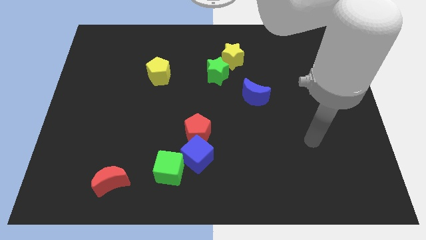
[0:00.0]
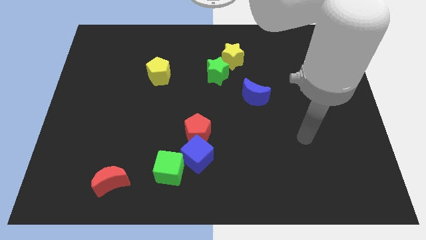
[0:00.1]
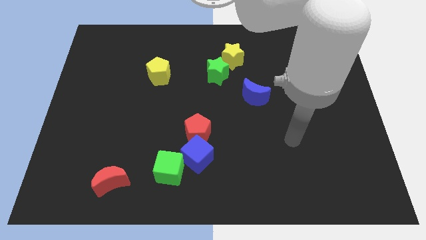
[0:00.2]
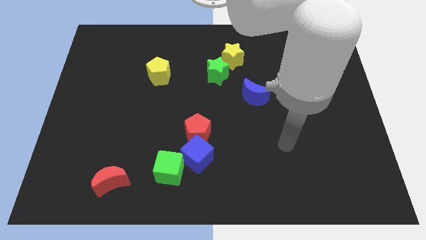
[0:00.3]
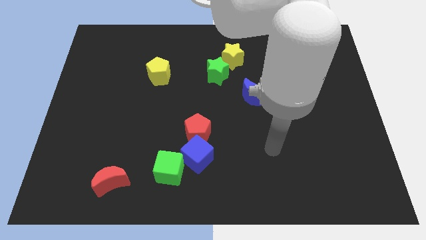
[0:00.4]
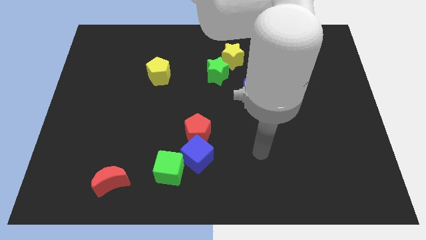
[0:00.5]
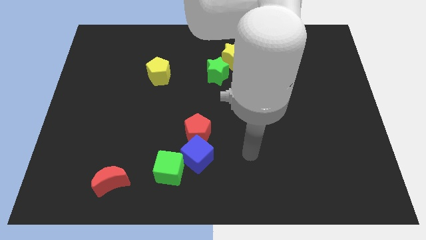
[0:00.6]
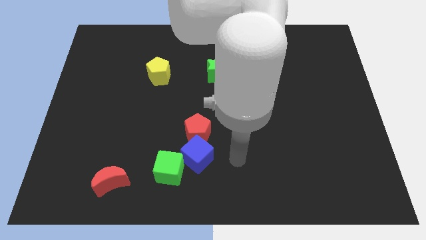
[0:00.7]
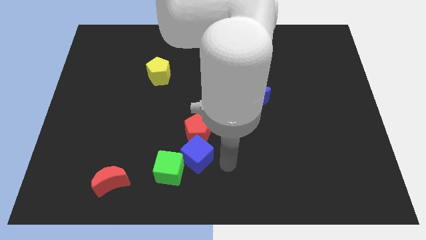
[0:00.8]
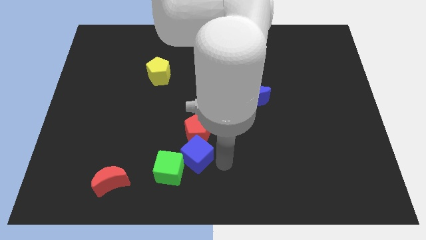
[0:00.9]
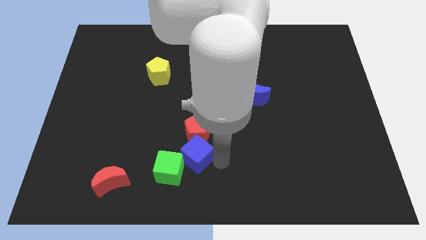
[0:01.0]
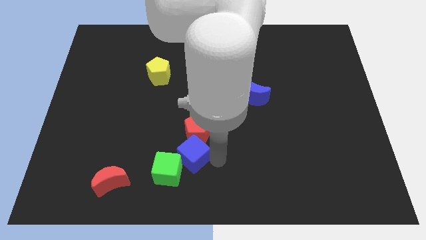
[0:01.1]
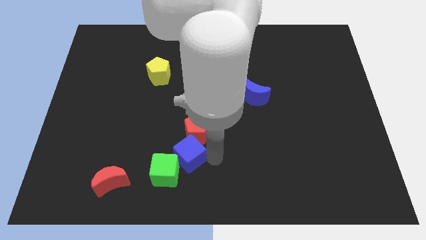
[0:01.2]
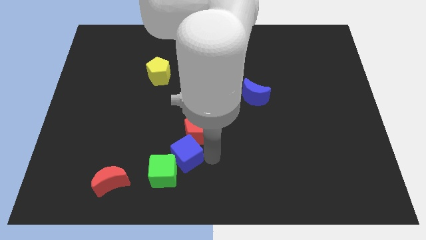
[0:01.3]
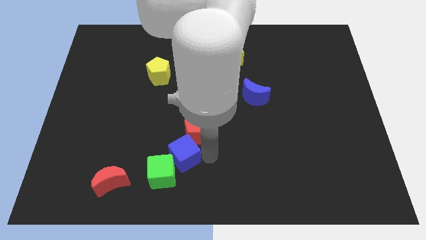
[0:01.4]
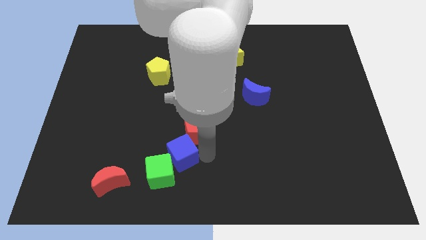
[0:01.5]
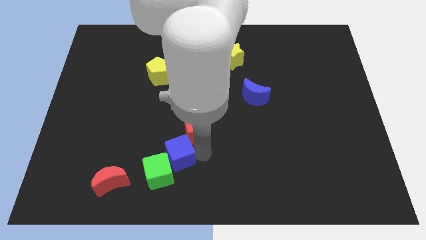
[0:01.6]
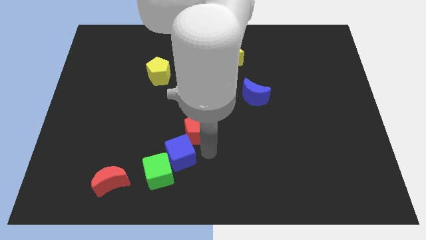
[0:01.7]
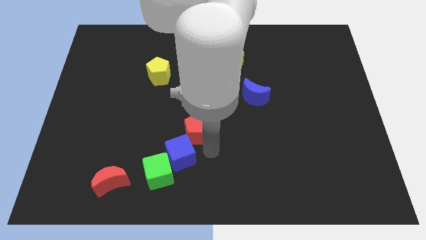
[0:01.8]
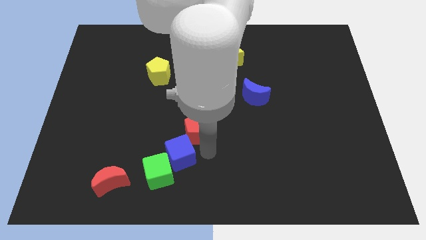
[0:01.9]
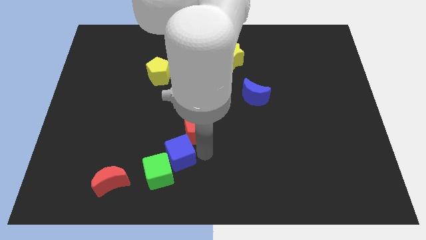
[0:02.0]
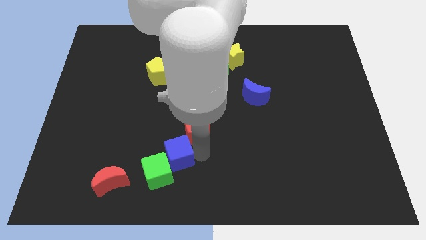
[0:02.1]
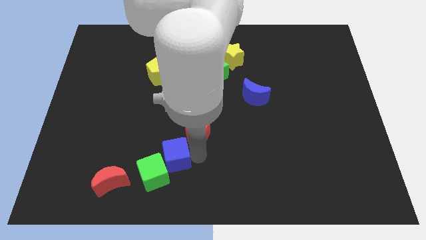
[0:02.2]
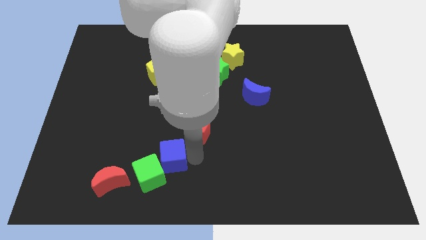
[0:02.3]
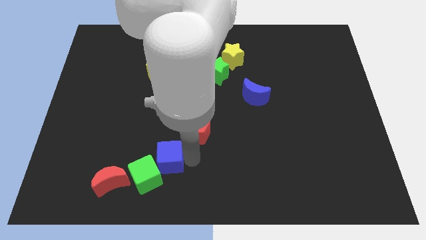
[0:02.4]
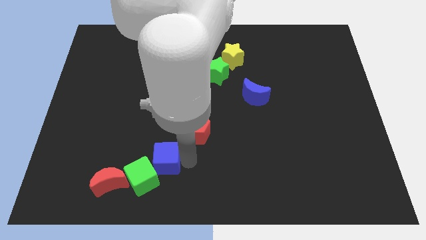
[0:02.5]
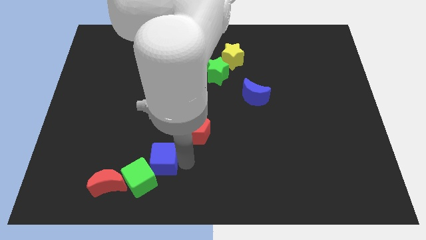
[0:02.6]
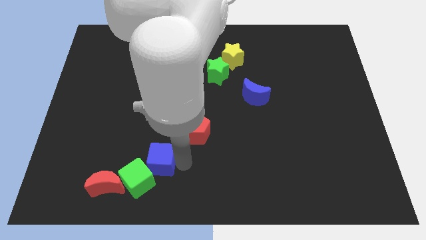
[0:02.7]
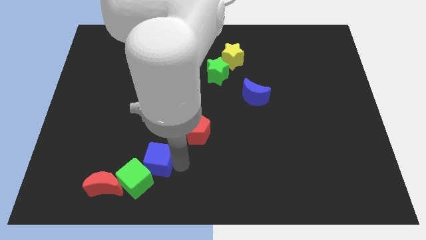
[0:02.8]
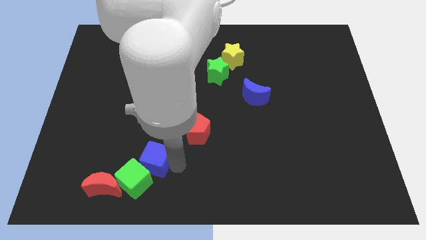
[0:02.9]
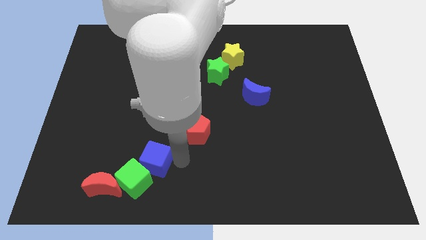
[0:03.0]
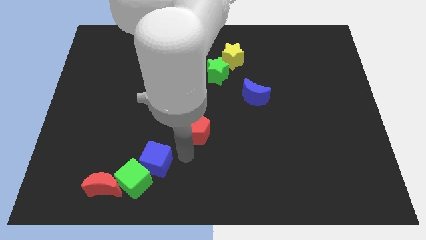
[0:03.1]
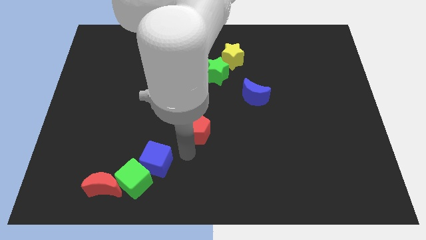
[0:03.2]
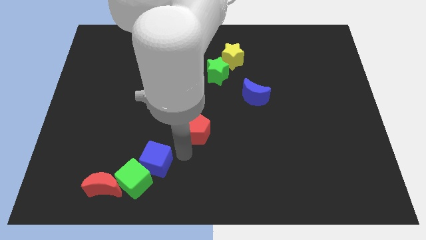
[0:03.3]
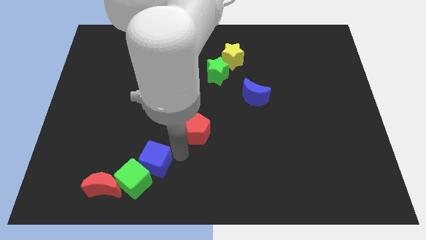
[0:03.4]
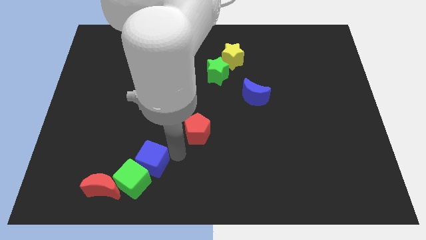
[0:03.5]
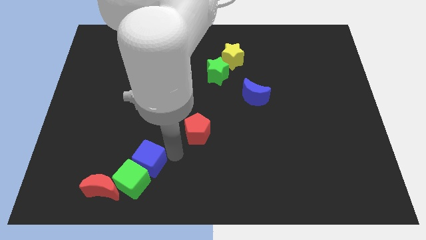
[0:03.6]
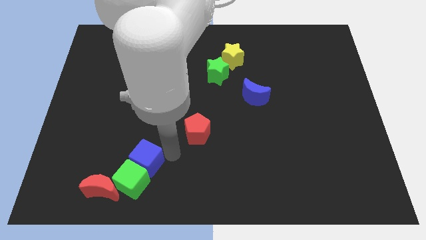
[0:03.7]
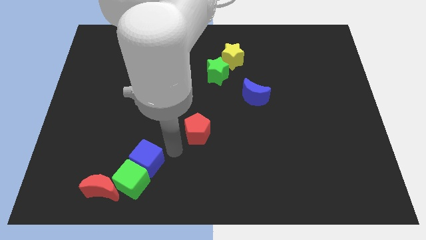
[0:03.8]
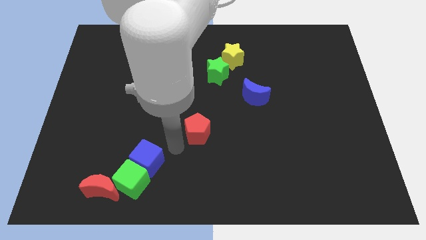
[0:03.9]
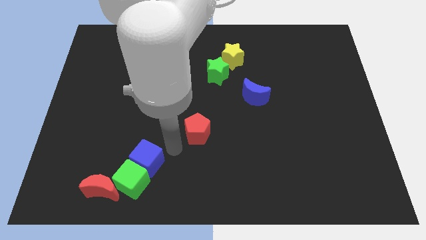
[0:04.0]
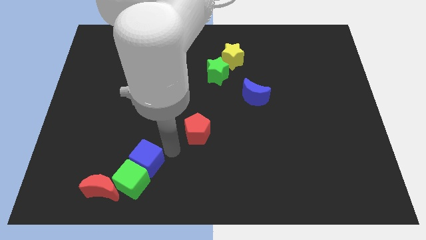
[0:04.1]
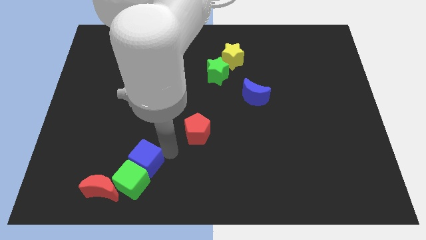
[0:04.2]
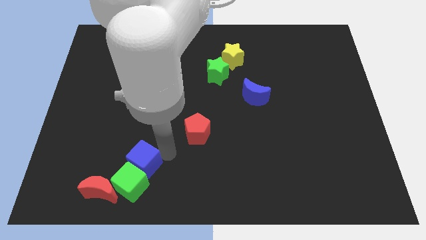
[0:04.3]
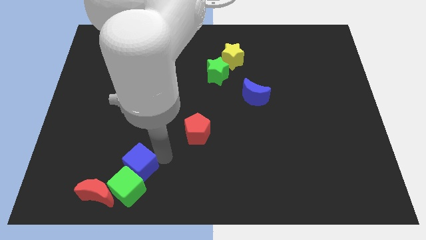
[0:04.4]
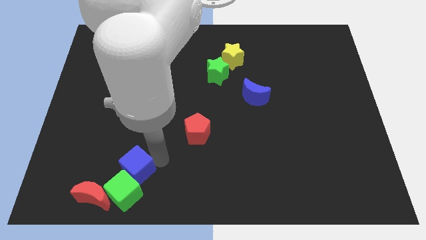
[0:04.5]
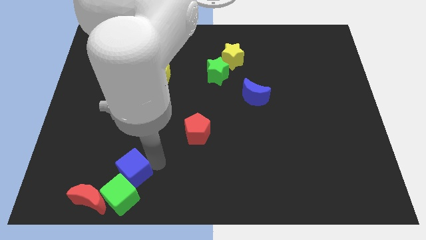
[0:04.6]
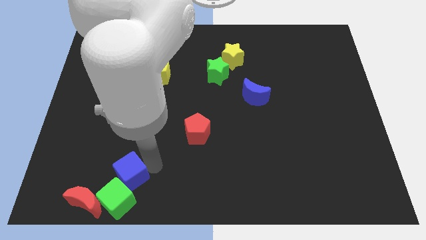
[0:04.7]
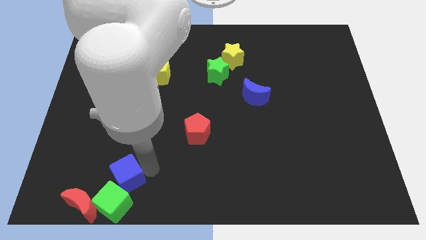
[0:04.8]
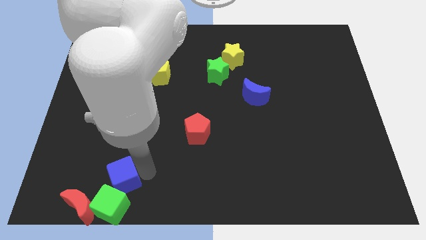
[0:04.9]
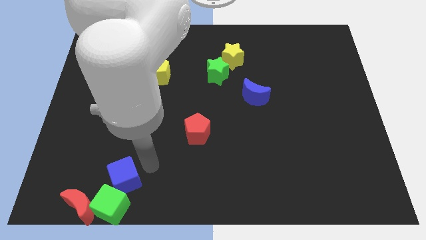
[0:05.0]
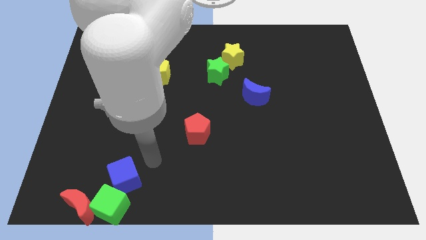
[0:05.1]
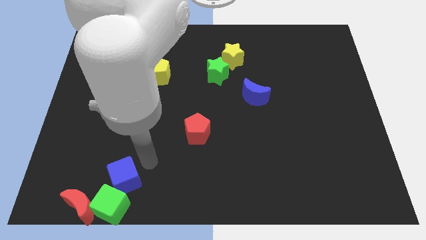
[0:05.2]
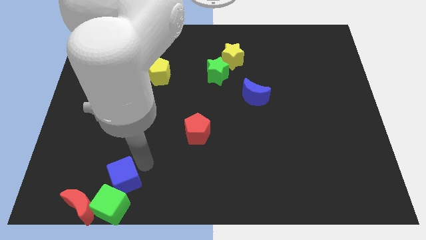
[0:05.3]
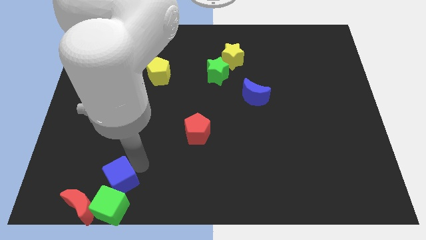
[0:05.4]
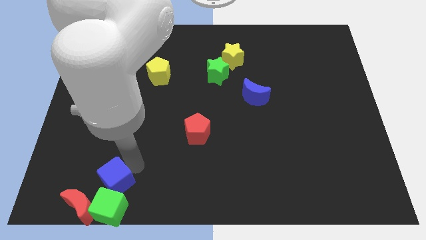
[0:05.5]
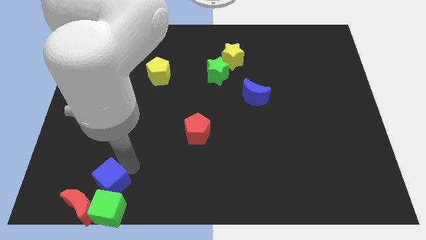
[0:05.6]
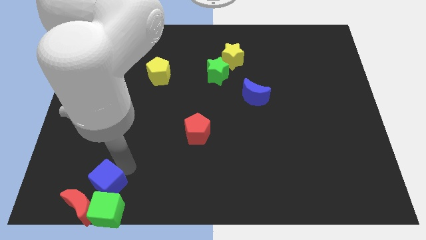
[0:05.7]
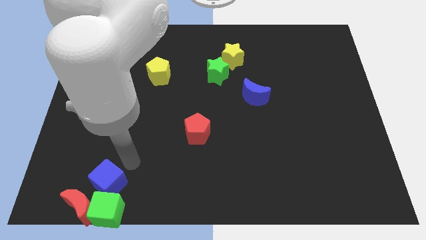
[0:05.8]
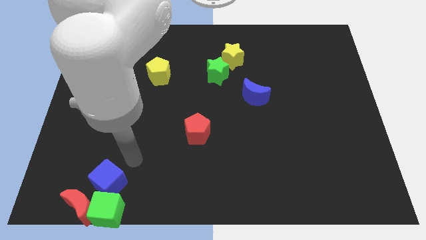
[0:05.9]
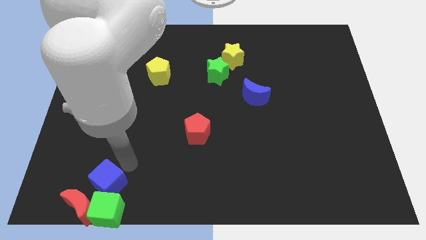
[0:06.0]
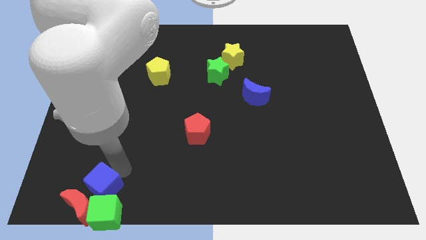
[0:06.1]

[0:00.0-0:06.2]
put the blue cube to the red moon

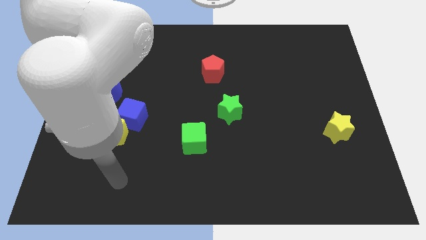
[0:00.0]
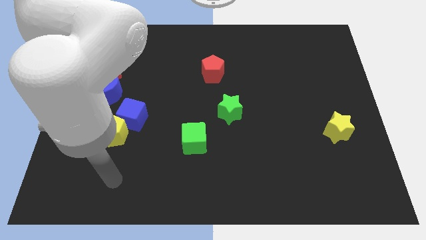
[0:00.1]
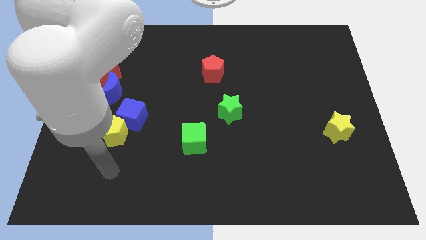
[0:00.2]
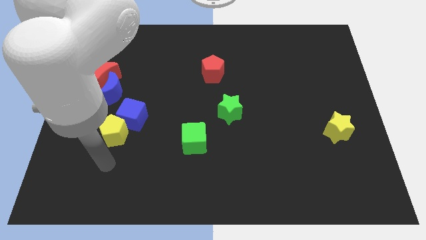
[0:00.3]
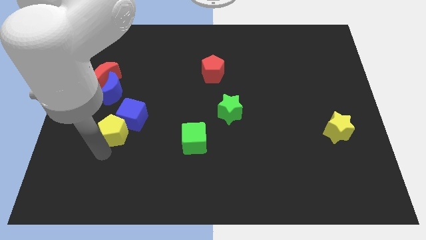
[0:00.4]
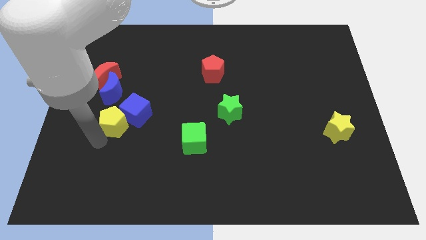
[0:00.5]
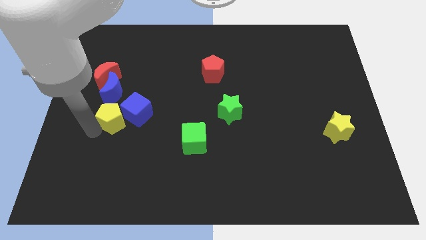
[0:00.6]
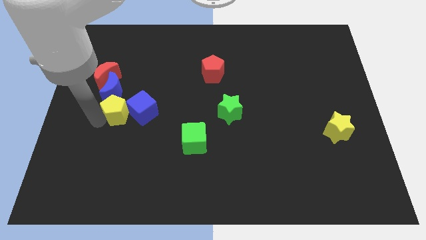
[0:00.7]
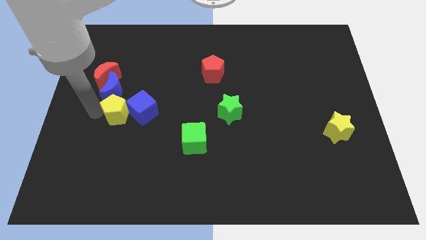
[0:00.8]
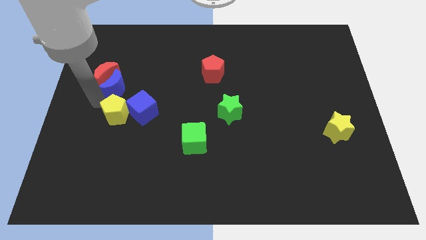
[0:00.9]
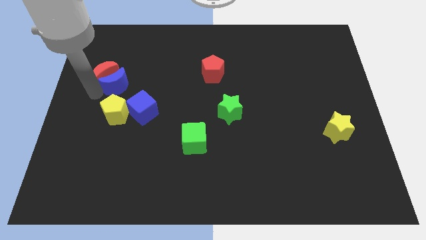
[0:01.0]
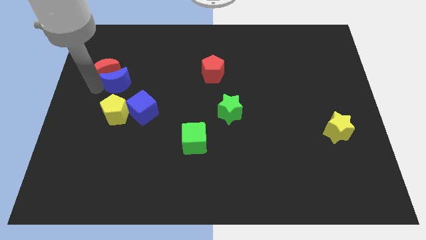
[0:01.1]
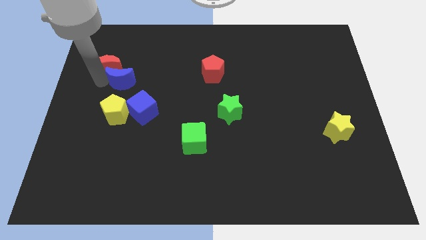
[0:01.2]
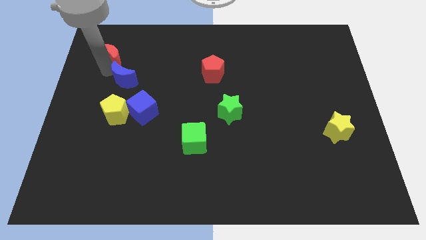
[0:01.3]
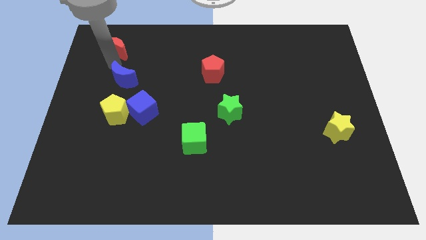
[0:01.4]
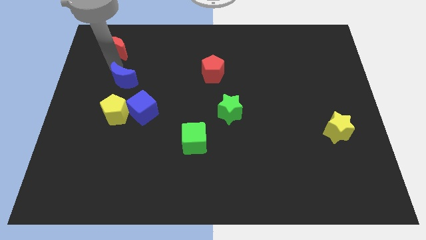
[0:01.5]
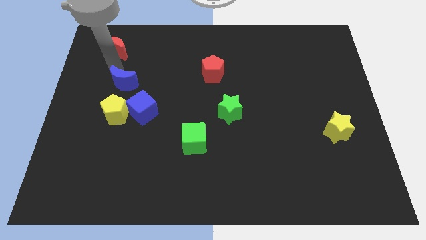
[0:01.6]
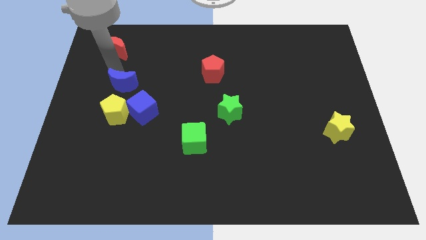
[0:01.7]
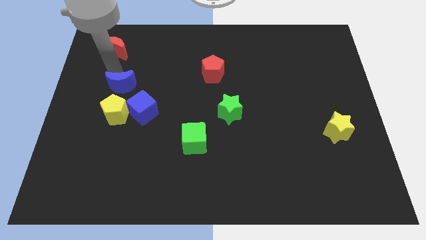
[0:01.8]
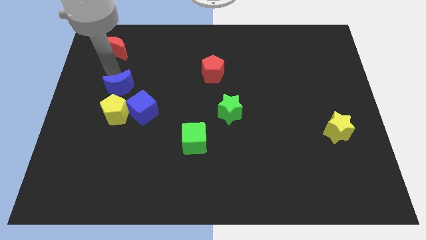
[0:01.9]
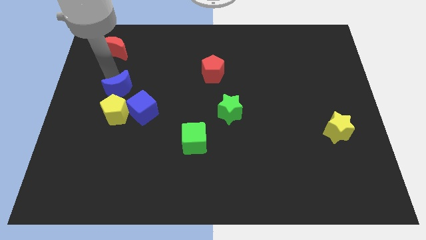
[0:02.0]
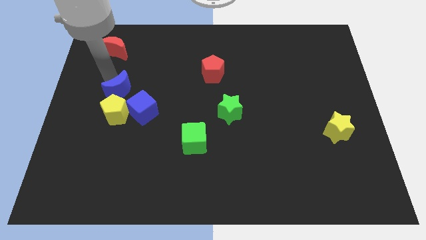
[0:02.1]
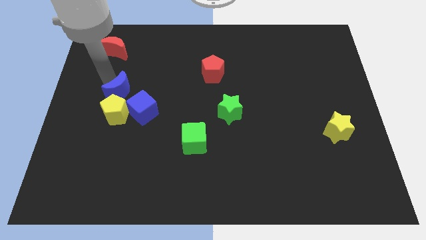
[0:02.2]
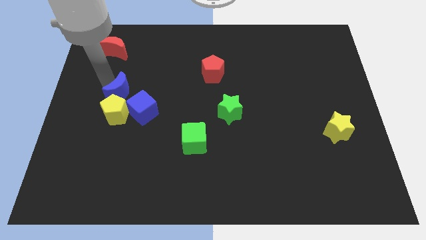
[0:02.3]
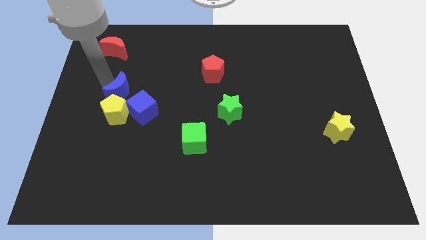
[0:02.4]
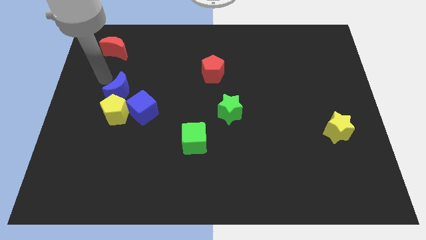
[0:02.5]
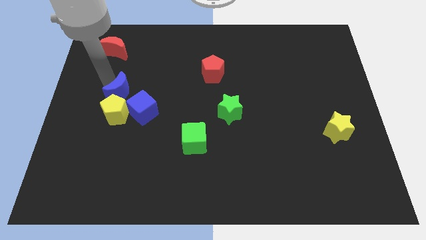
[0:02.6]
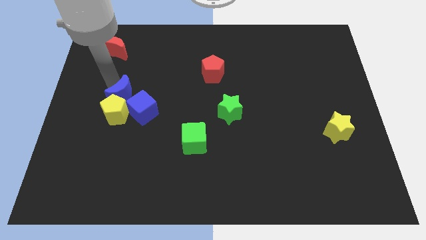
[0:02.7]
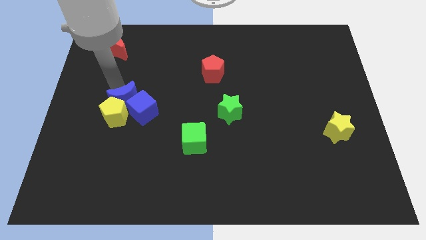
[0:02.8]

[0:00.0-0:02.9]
put the blue moon close to the blue cube
